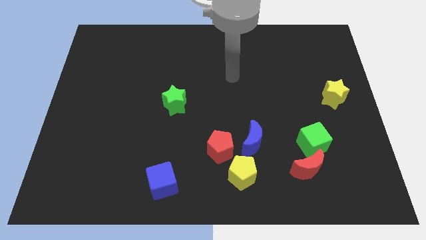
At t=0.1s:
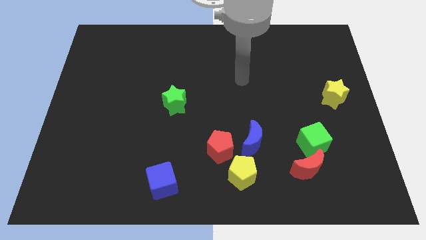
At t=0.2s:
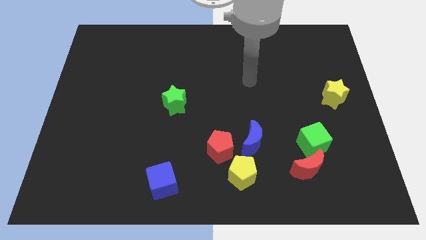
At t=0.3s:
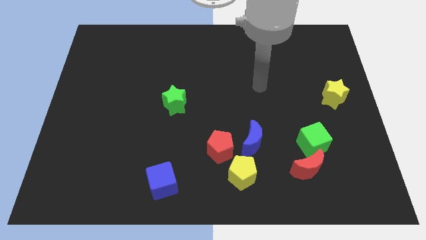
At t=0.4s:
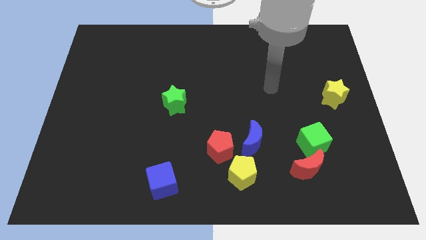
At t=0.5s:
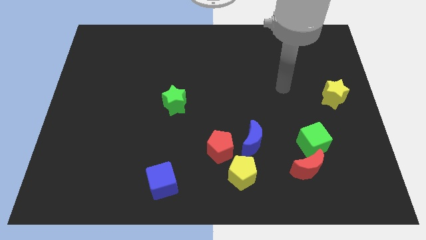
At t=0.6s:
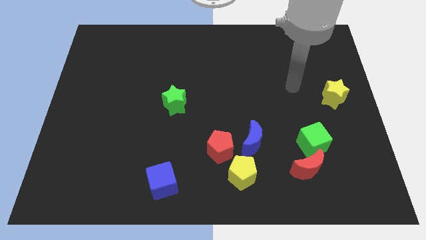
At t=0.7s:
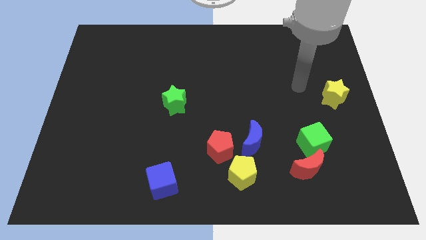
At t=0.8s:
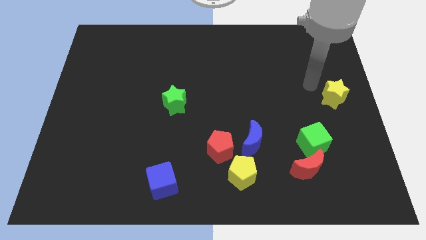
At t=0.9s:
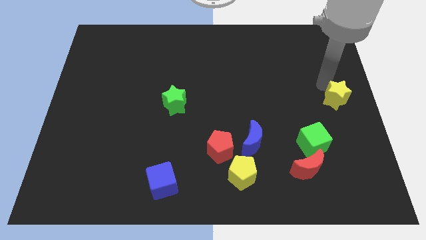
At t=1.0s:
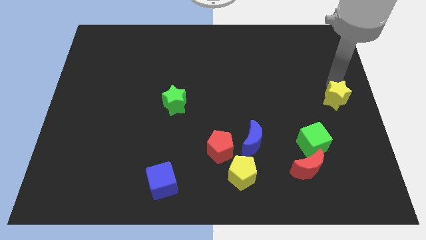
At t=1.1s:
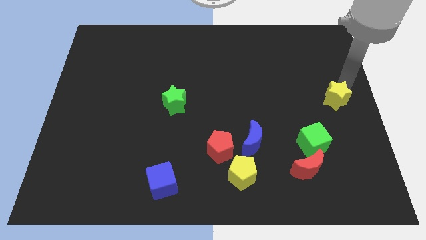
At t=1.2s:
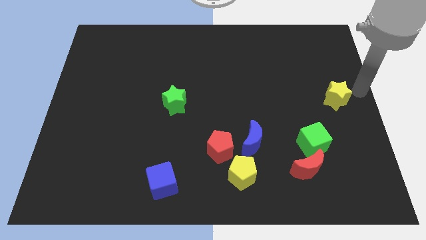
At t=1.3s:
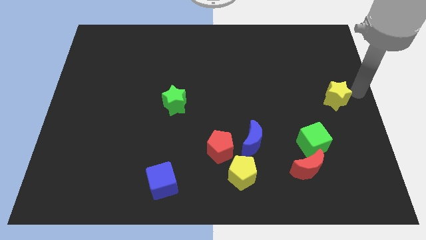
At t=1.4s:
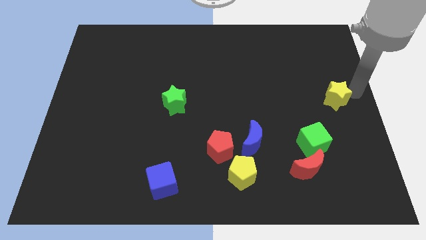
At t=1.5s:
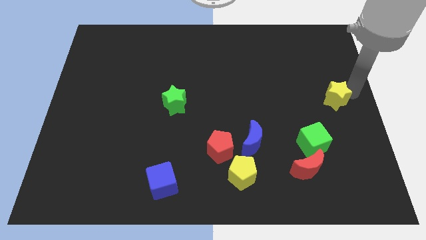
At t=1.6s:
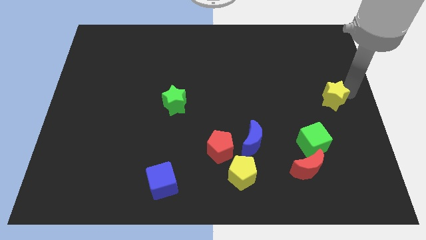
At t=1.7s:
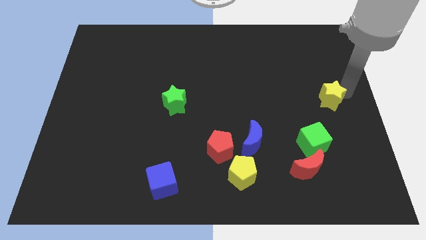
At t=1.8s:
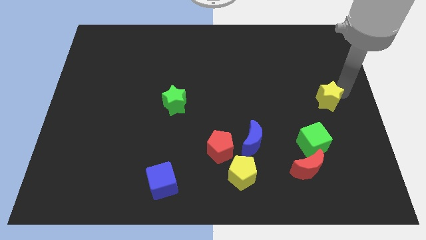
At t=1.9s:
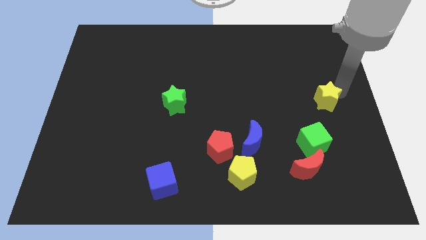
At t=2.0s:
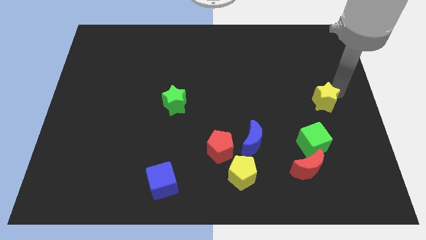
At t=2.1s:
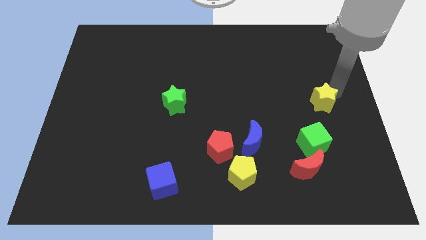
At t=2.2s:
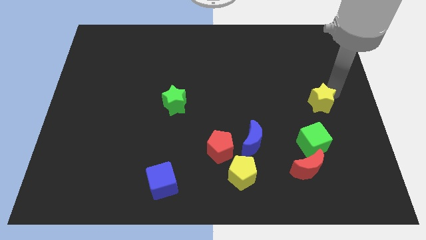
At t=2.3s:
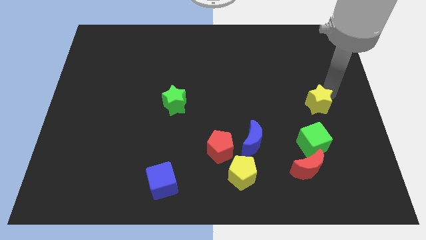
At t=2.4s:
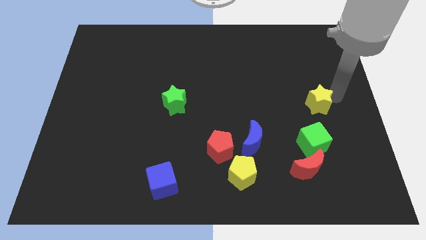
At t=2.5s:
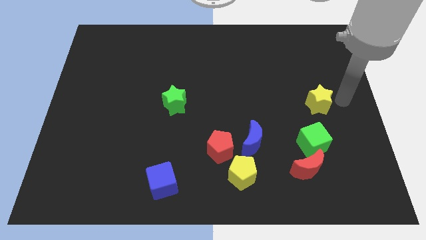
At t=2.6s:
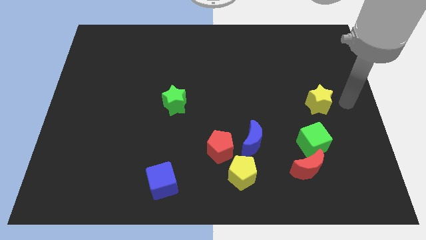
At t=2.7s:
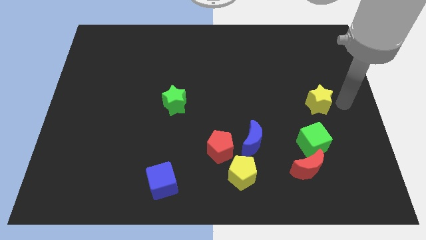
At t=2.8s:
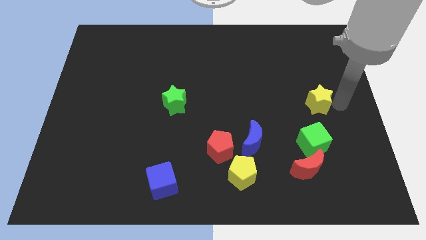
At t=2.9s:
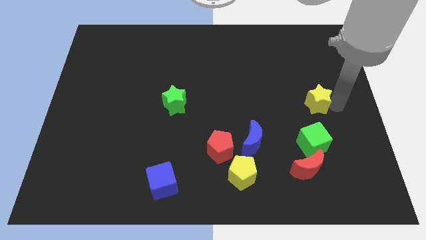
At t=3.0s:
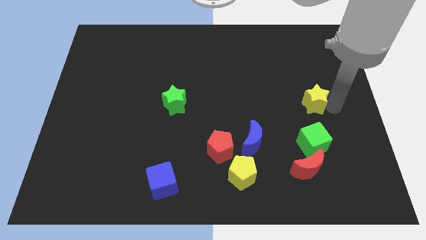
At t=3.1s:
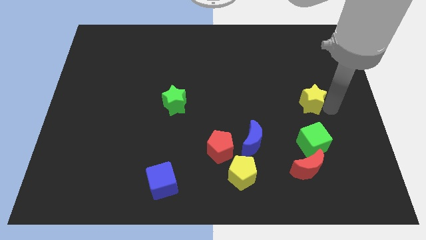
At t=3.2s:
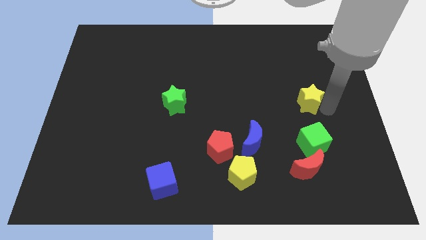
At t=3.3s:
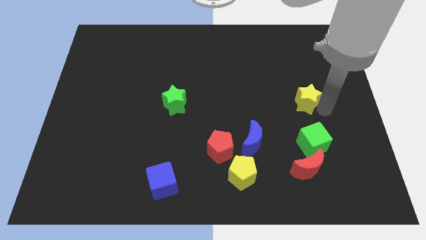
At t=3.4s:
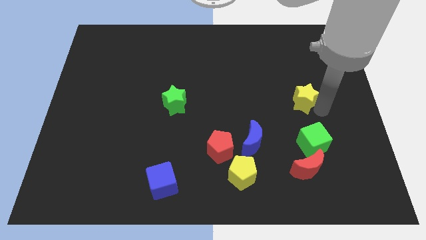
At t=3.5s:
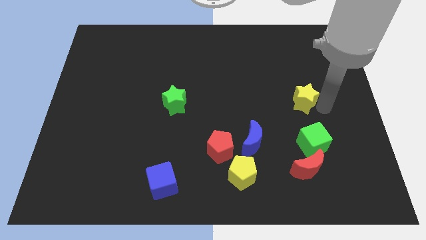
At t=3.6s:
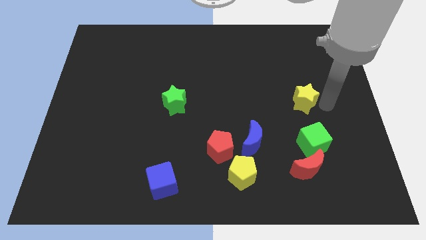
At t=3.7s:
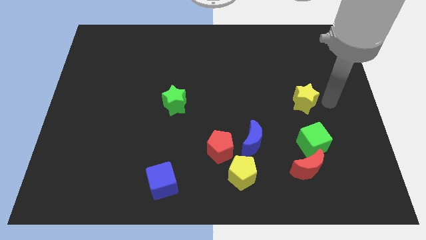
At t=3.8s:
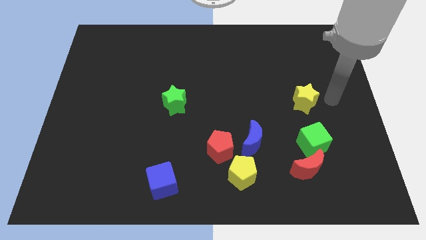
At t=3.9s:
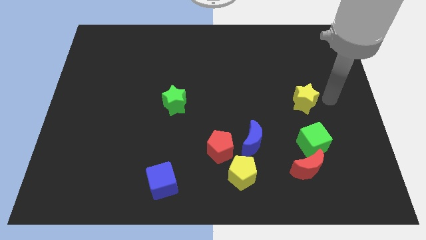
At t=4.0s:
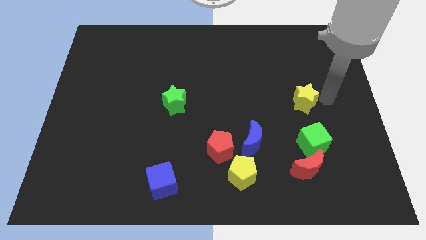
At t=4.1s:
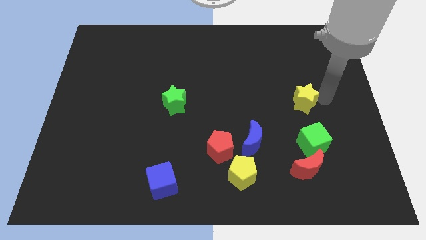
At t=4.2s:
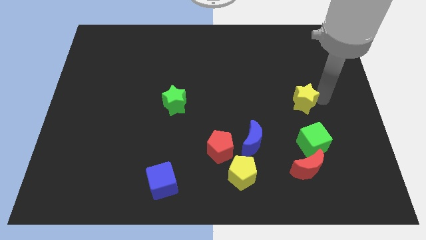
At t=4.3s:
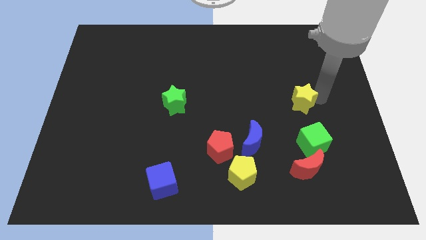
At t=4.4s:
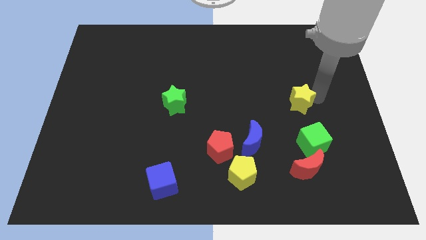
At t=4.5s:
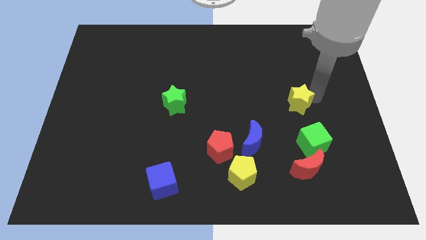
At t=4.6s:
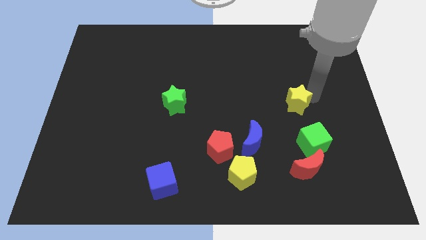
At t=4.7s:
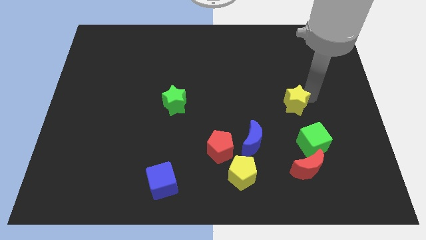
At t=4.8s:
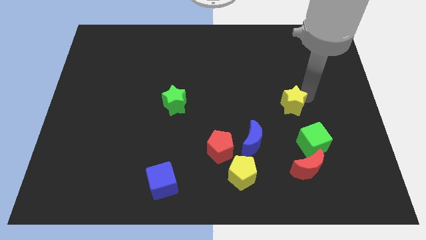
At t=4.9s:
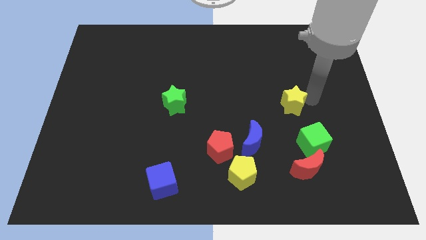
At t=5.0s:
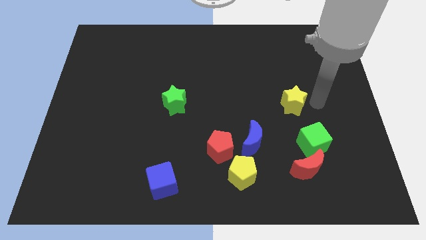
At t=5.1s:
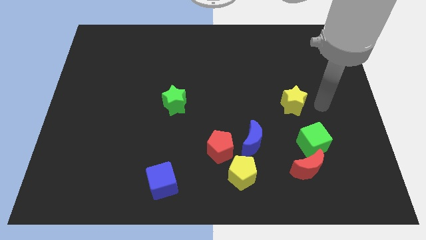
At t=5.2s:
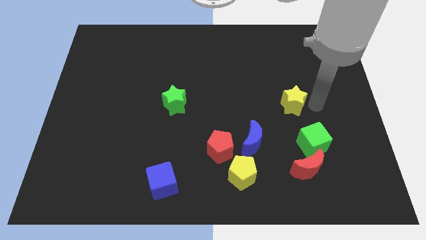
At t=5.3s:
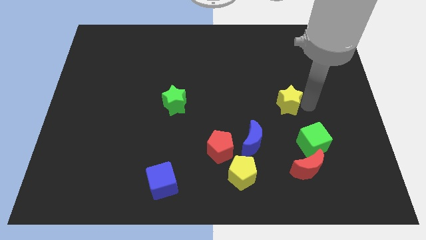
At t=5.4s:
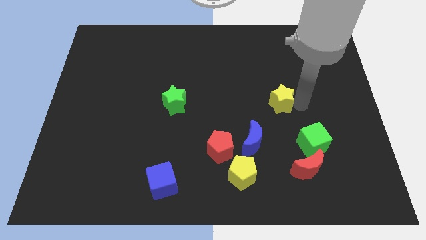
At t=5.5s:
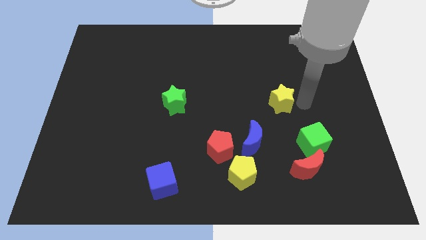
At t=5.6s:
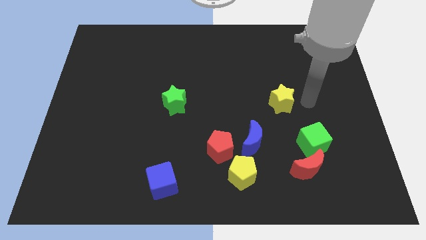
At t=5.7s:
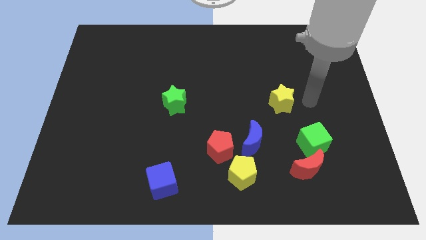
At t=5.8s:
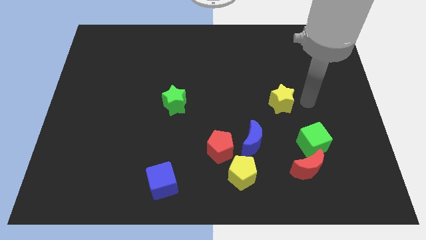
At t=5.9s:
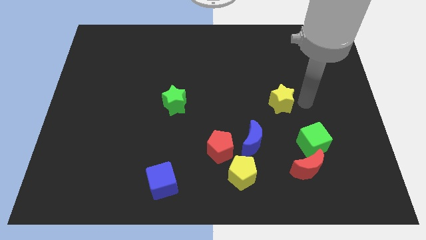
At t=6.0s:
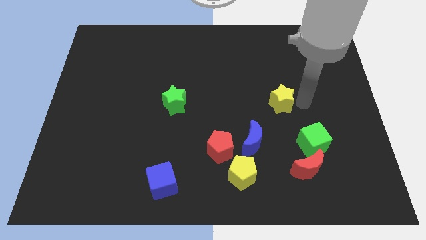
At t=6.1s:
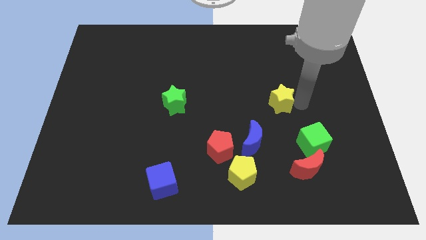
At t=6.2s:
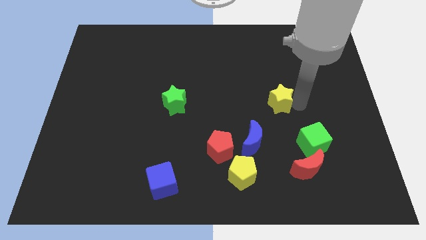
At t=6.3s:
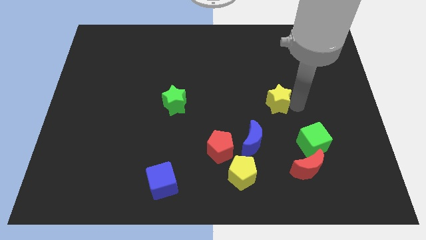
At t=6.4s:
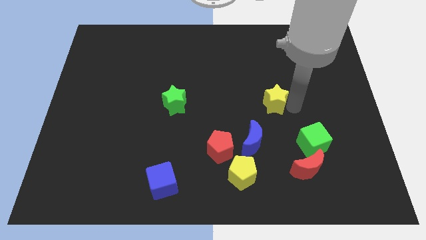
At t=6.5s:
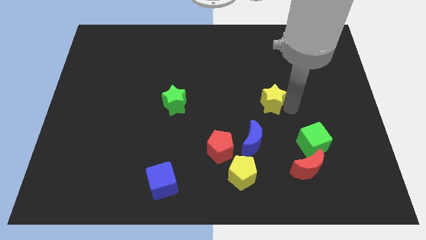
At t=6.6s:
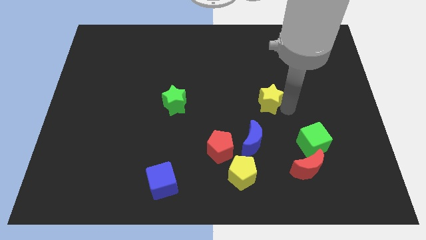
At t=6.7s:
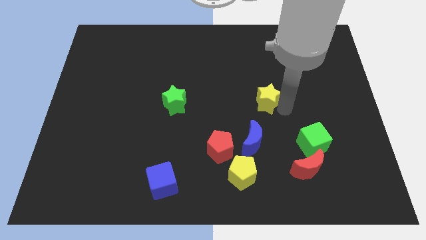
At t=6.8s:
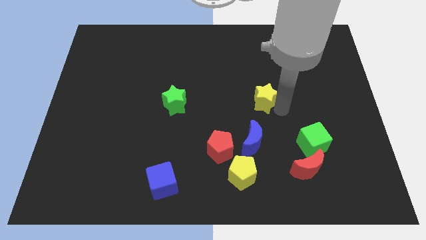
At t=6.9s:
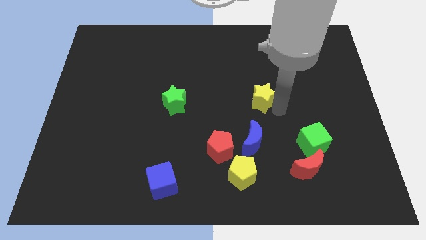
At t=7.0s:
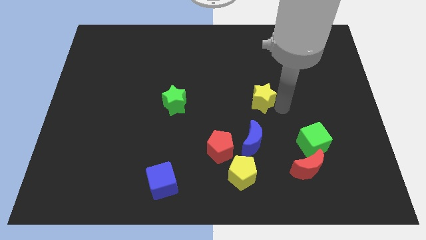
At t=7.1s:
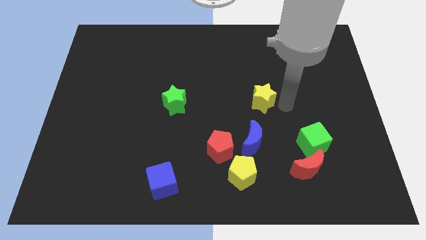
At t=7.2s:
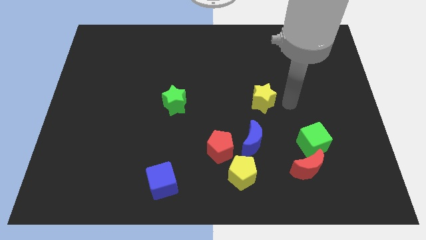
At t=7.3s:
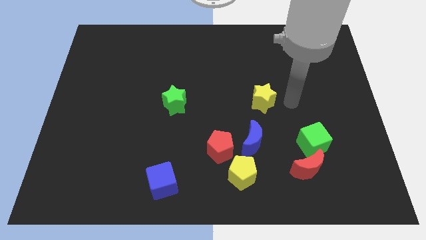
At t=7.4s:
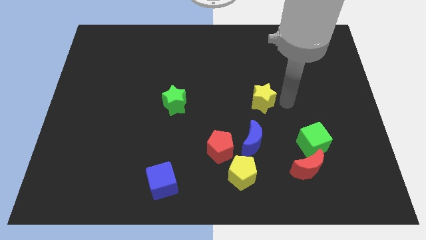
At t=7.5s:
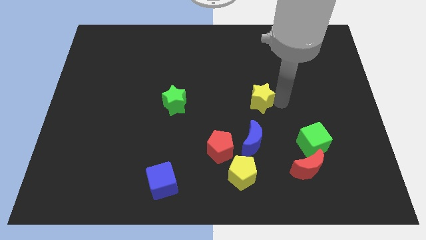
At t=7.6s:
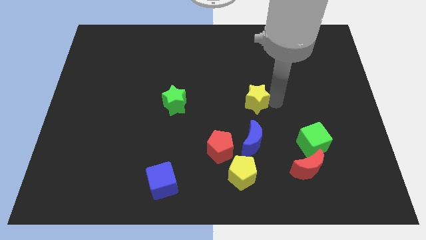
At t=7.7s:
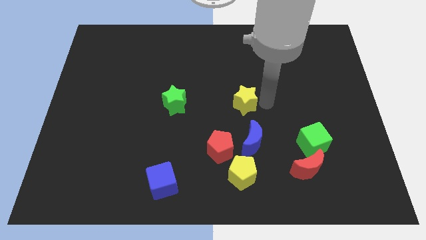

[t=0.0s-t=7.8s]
move the yellow star to the left
